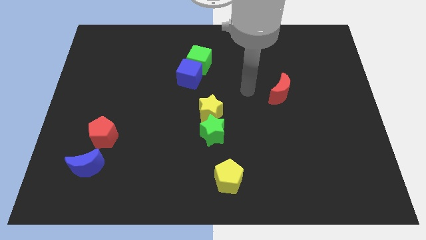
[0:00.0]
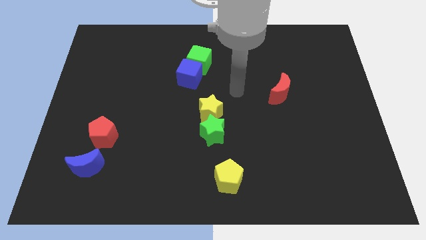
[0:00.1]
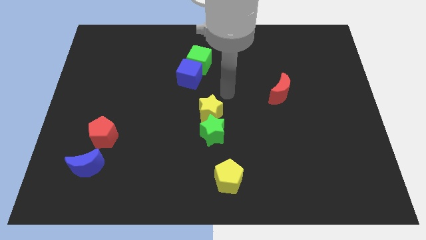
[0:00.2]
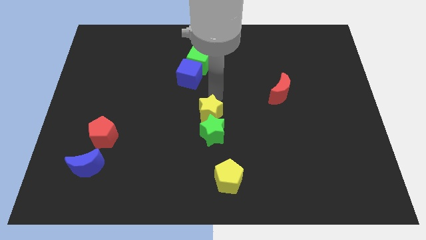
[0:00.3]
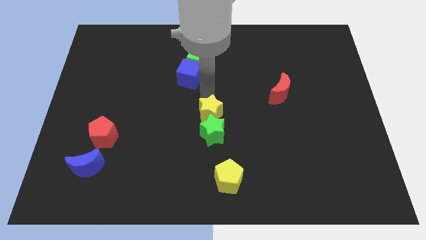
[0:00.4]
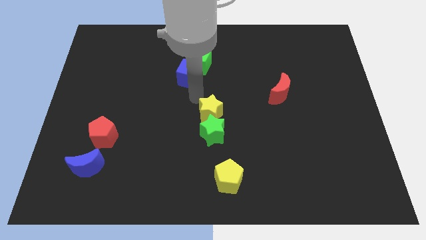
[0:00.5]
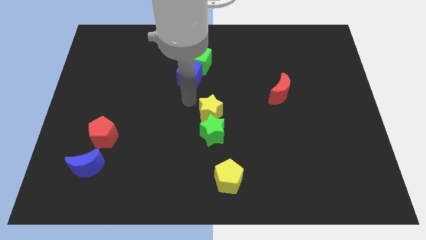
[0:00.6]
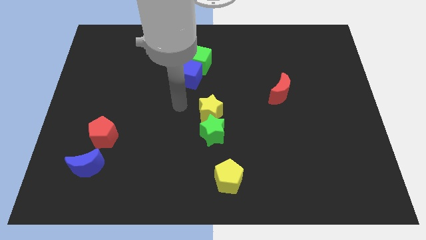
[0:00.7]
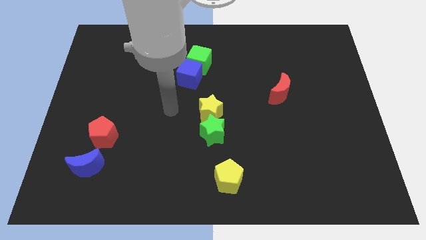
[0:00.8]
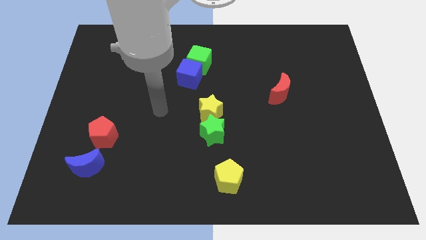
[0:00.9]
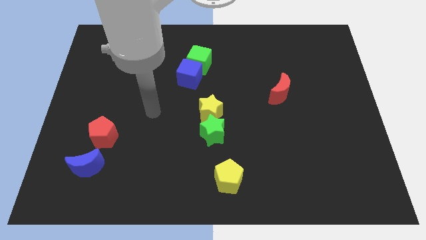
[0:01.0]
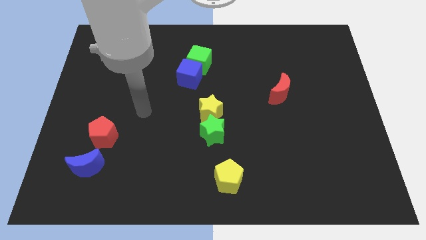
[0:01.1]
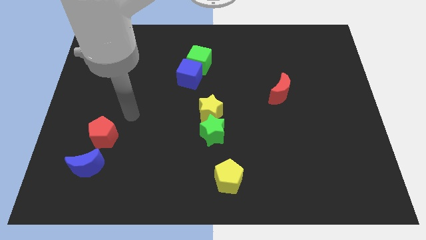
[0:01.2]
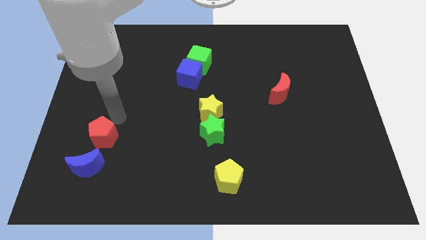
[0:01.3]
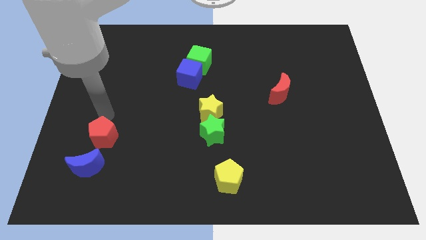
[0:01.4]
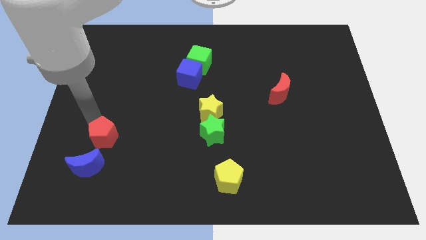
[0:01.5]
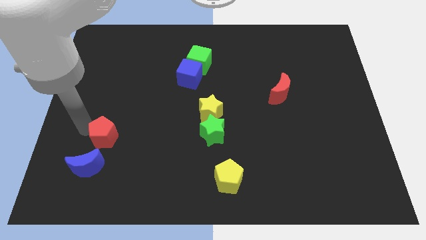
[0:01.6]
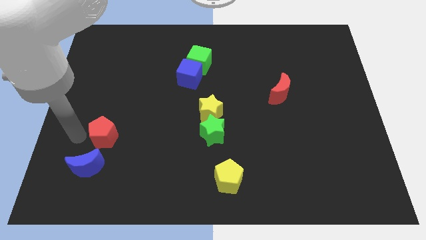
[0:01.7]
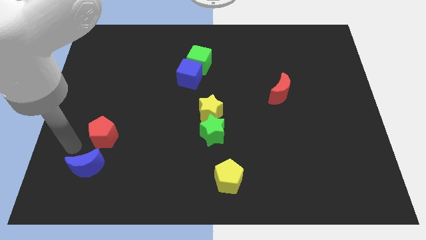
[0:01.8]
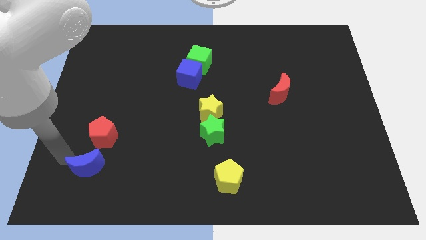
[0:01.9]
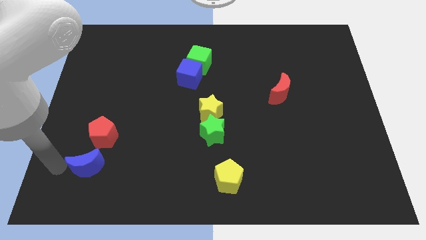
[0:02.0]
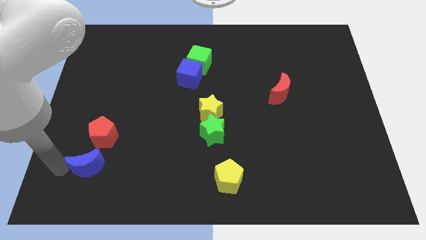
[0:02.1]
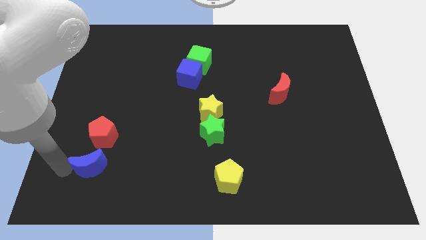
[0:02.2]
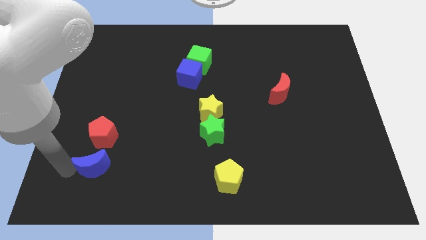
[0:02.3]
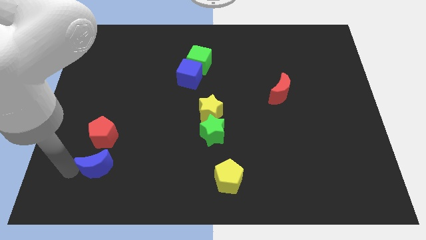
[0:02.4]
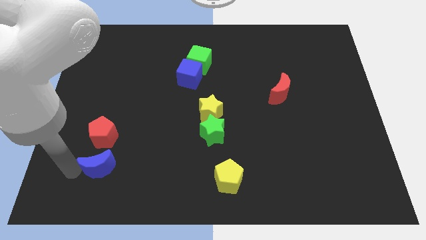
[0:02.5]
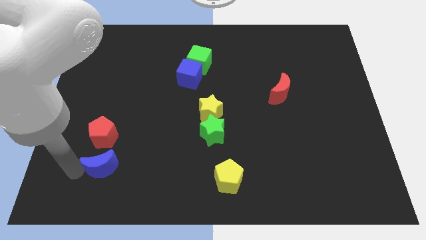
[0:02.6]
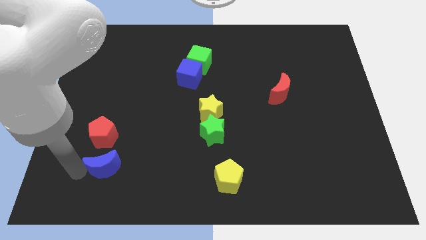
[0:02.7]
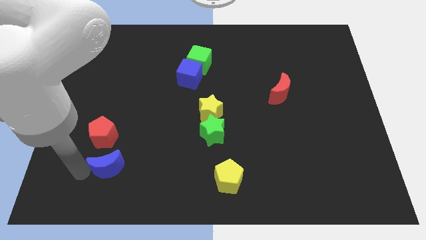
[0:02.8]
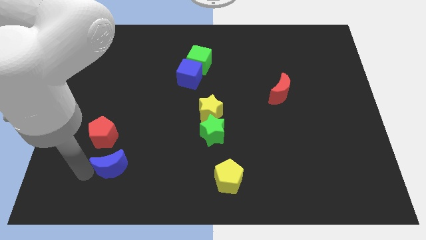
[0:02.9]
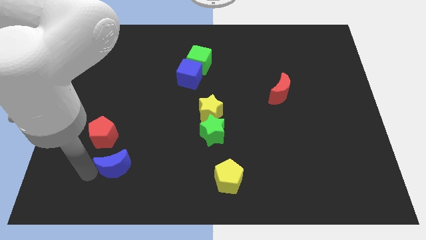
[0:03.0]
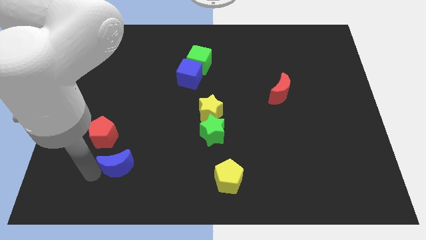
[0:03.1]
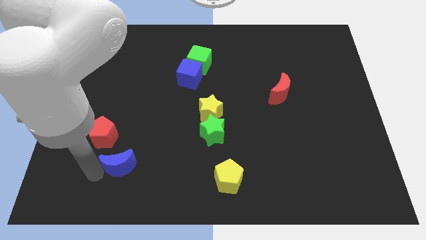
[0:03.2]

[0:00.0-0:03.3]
slide the blue moon a little right

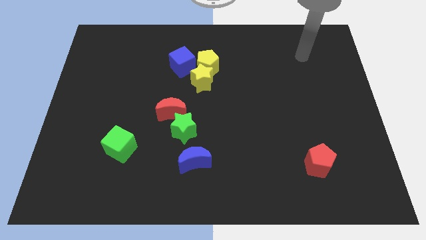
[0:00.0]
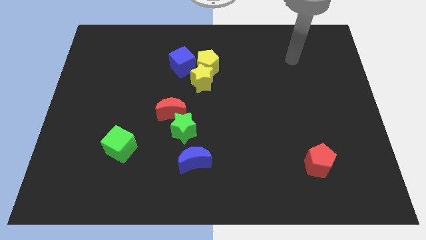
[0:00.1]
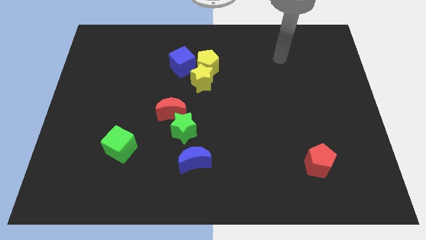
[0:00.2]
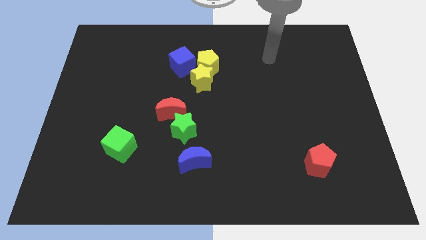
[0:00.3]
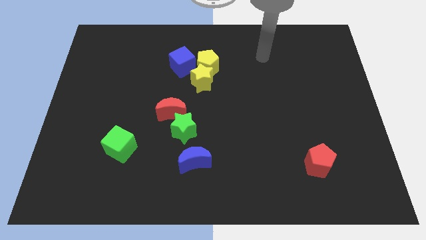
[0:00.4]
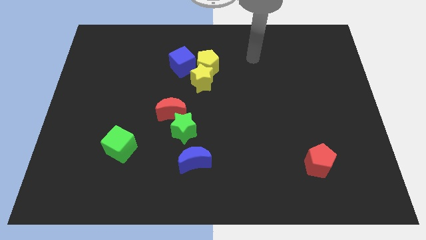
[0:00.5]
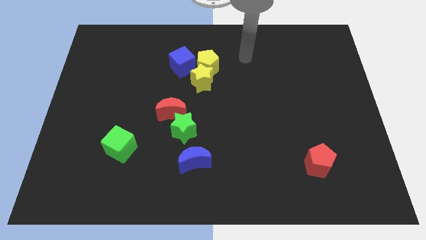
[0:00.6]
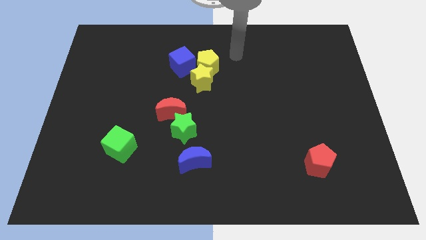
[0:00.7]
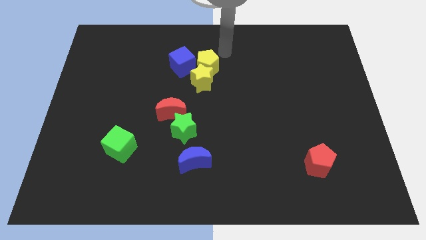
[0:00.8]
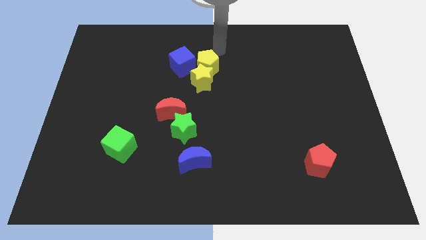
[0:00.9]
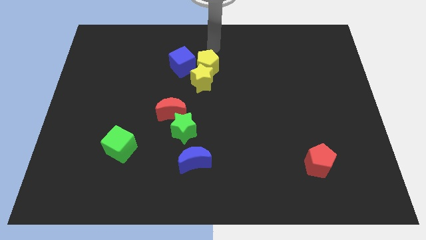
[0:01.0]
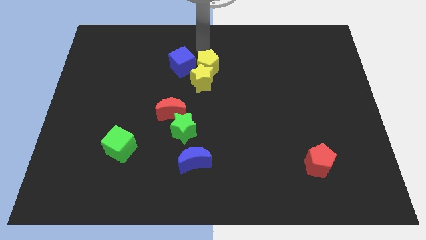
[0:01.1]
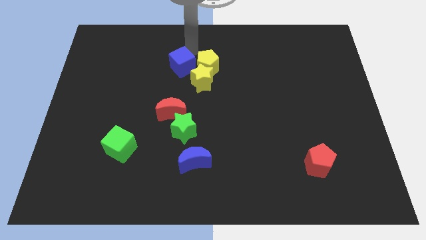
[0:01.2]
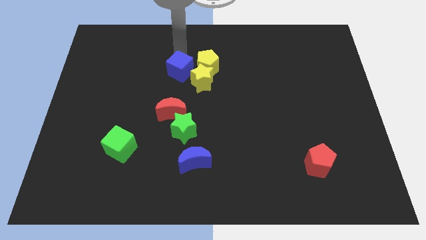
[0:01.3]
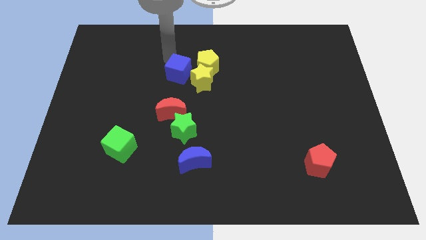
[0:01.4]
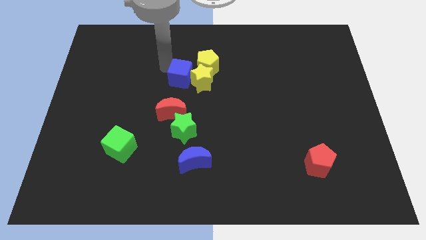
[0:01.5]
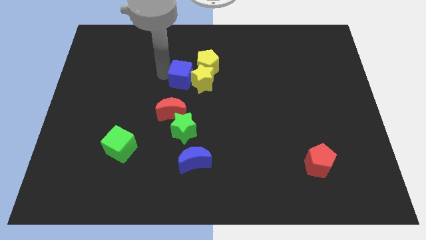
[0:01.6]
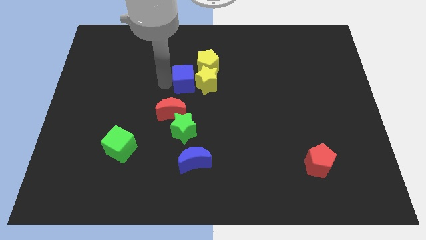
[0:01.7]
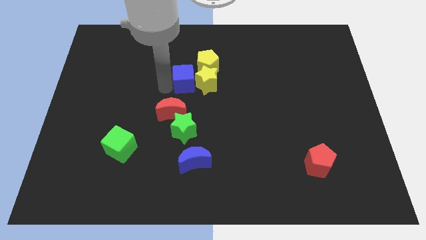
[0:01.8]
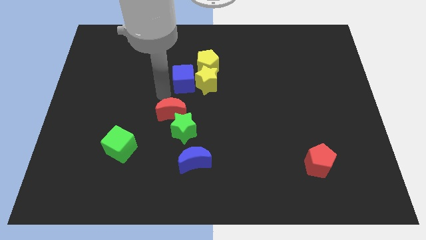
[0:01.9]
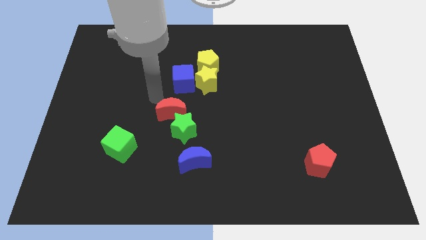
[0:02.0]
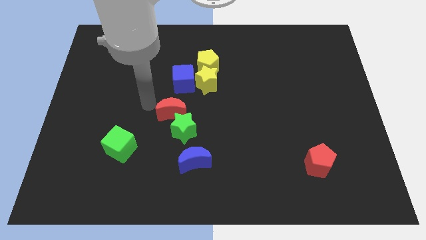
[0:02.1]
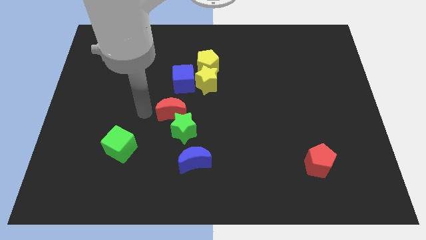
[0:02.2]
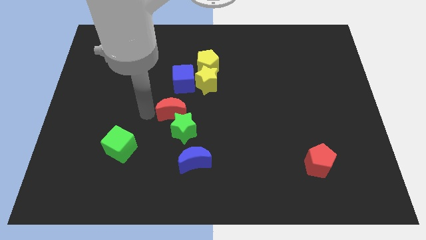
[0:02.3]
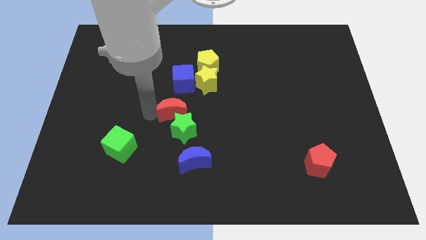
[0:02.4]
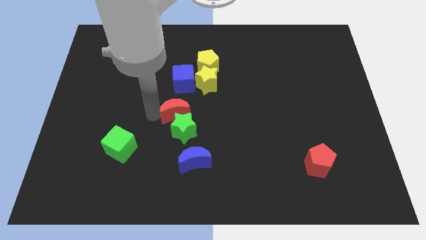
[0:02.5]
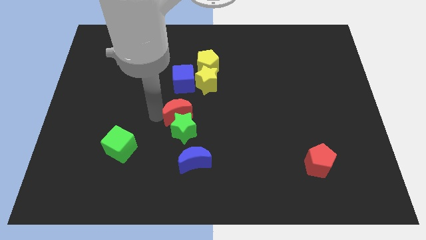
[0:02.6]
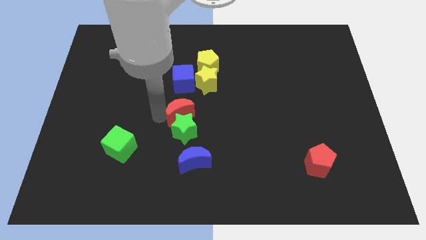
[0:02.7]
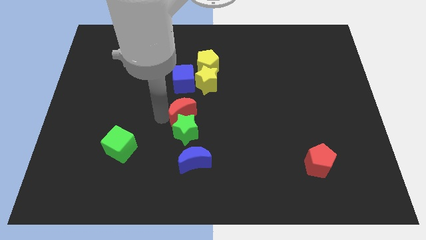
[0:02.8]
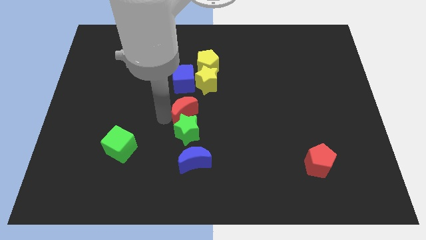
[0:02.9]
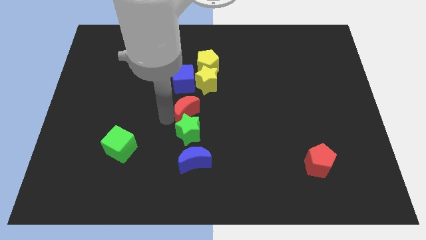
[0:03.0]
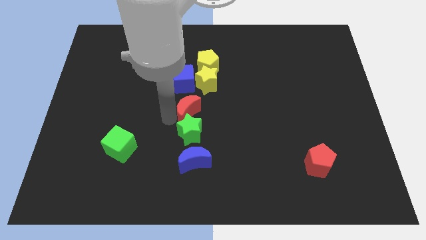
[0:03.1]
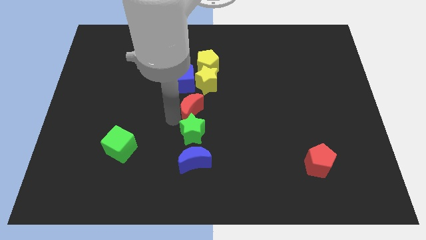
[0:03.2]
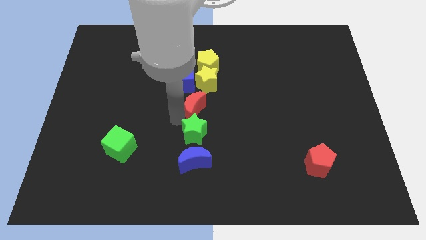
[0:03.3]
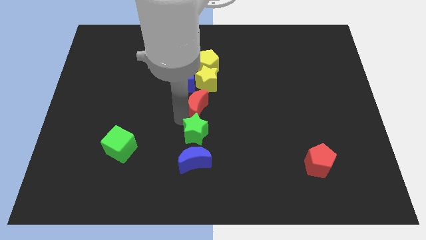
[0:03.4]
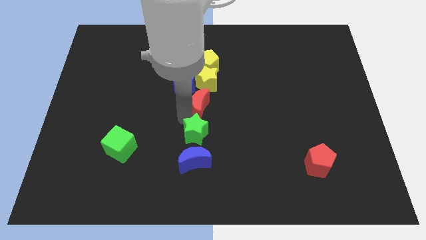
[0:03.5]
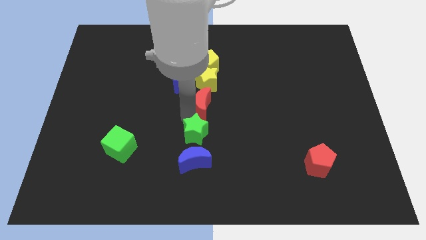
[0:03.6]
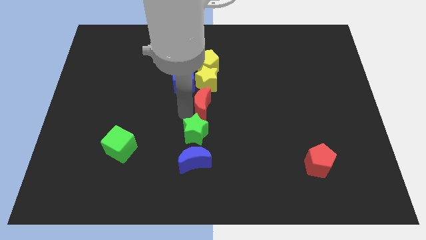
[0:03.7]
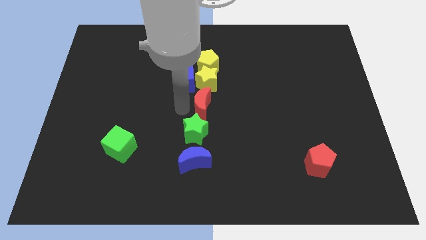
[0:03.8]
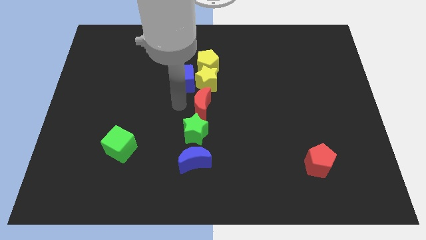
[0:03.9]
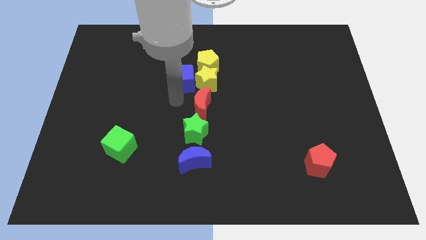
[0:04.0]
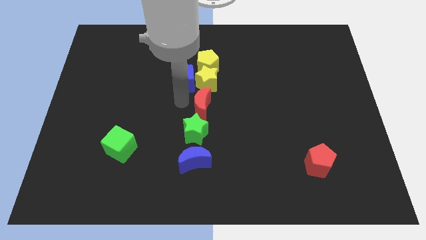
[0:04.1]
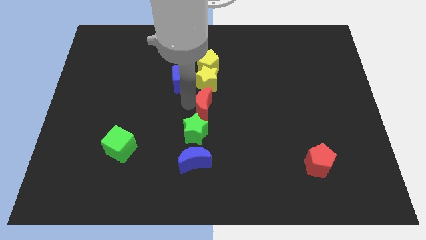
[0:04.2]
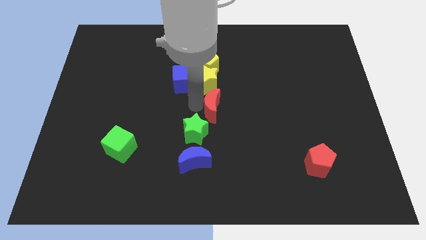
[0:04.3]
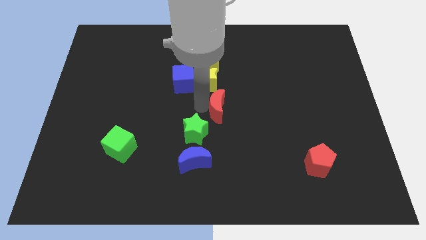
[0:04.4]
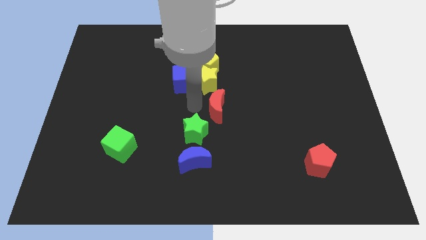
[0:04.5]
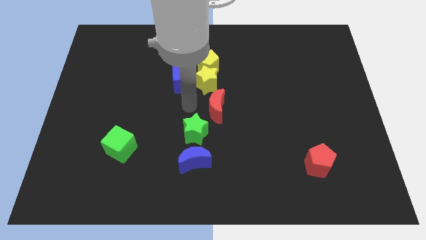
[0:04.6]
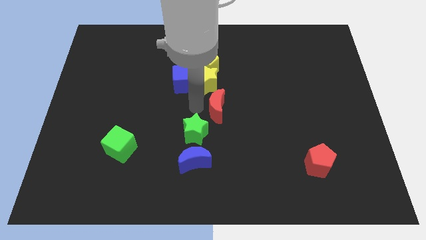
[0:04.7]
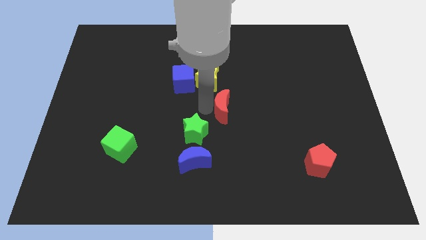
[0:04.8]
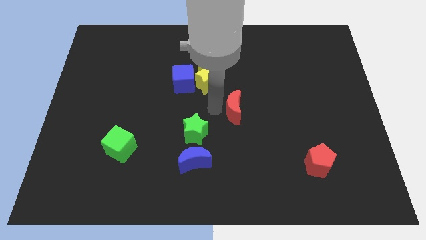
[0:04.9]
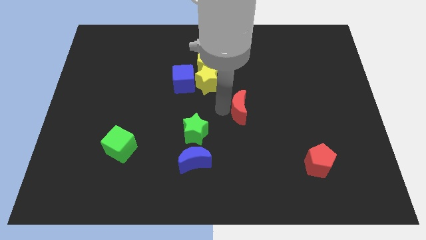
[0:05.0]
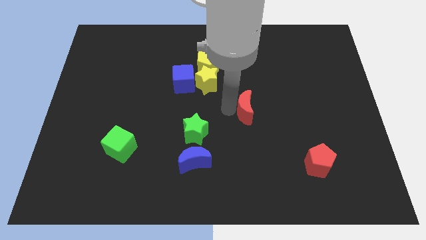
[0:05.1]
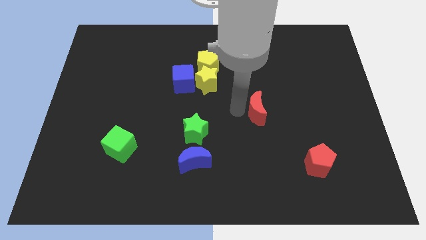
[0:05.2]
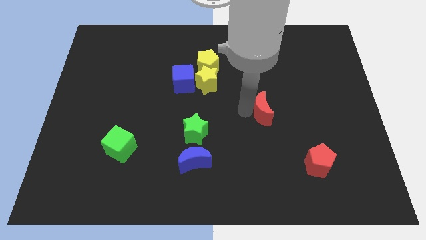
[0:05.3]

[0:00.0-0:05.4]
slide the red moon right

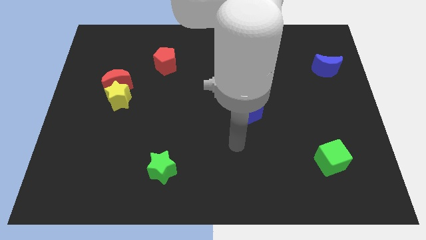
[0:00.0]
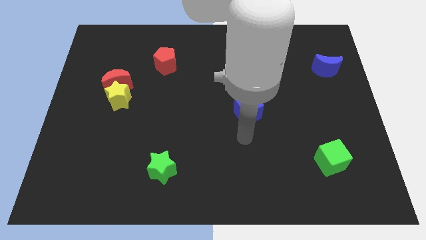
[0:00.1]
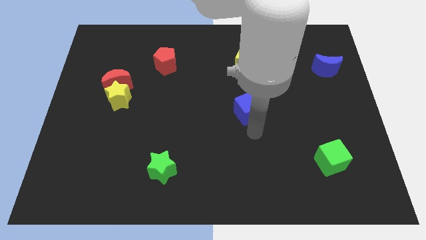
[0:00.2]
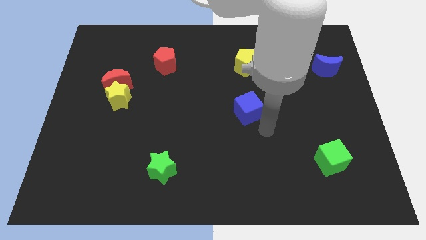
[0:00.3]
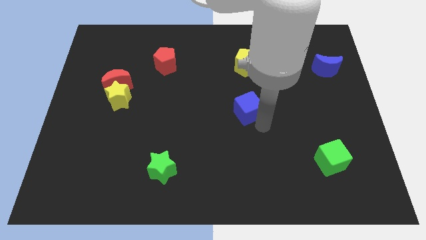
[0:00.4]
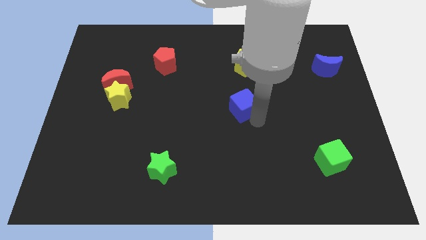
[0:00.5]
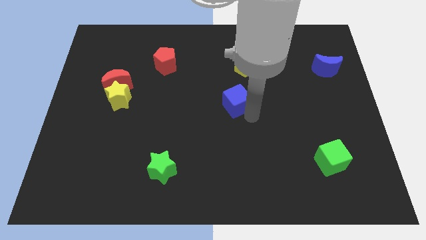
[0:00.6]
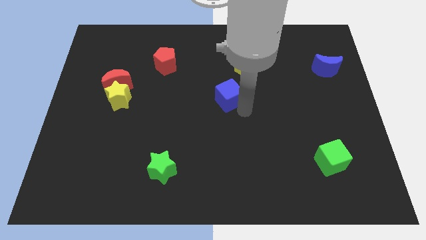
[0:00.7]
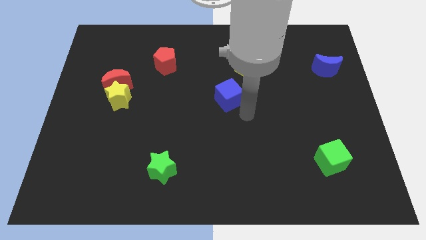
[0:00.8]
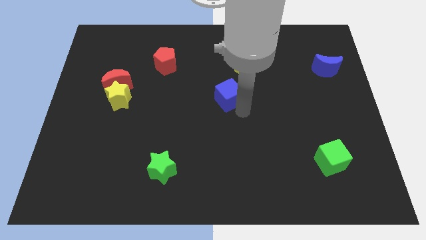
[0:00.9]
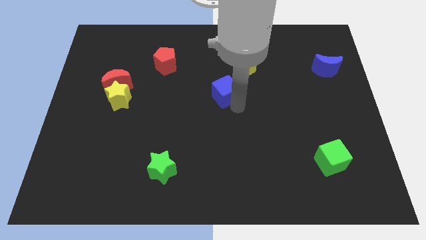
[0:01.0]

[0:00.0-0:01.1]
slide the blue cube up and then to the left a little
